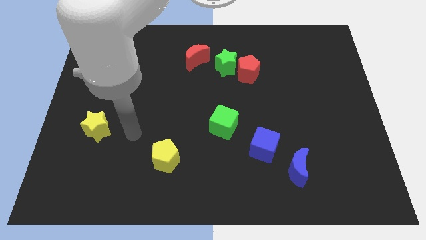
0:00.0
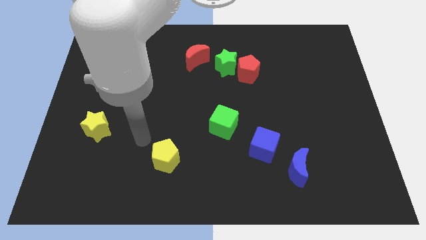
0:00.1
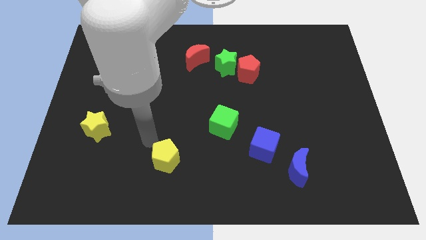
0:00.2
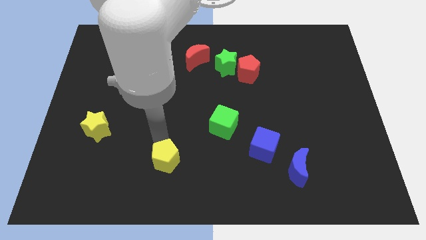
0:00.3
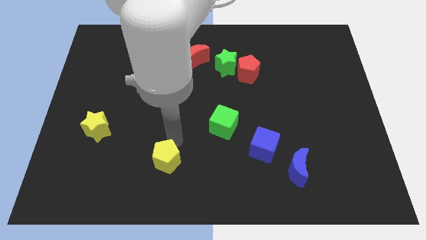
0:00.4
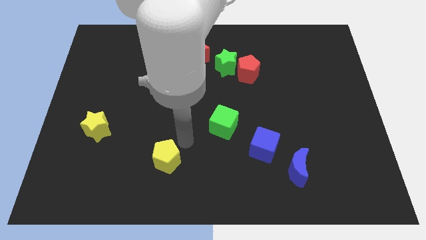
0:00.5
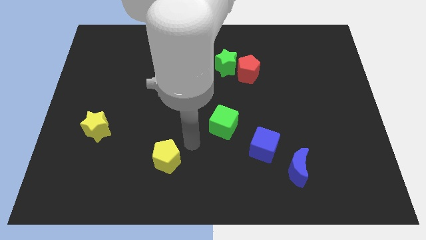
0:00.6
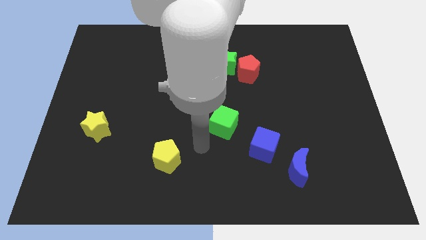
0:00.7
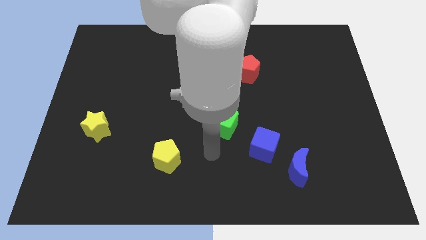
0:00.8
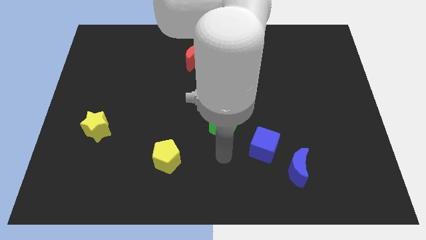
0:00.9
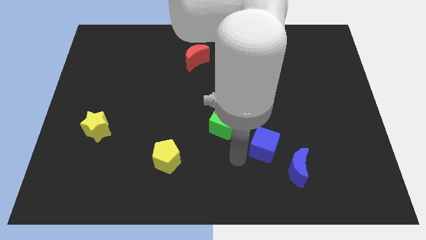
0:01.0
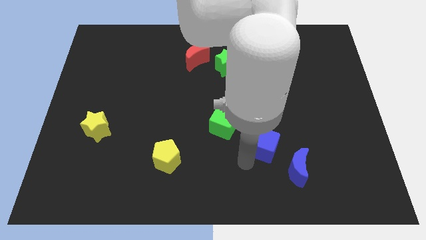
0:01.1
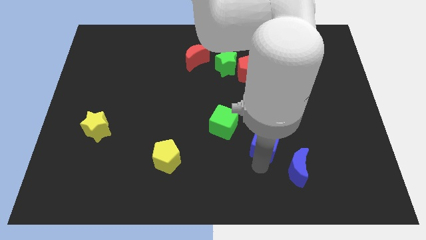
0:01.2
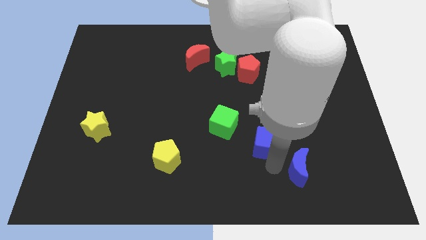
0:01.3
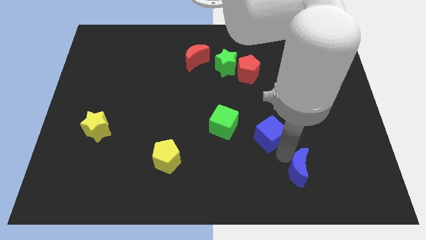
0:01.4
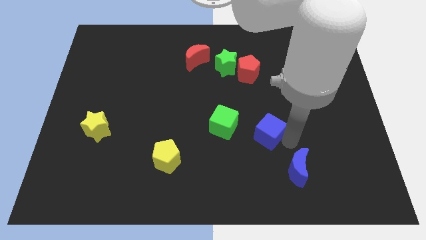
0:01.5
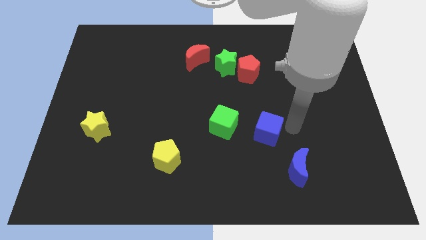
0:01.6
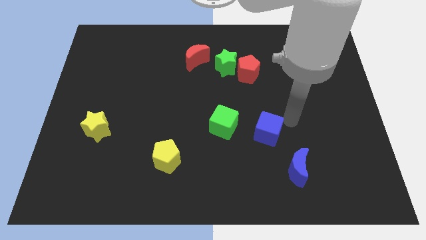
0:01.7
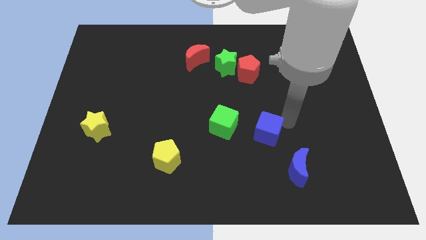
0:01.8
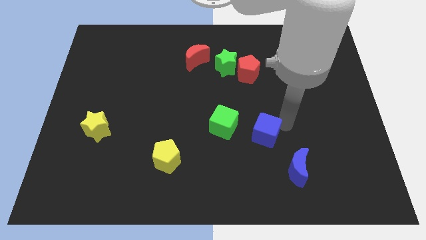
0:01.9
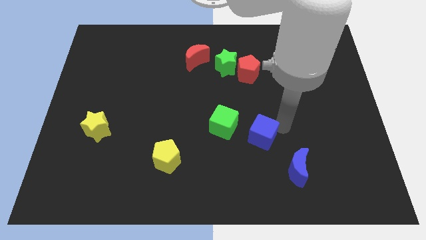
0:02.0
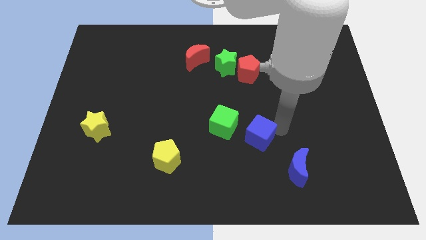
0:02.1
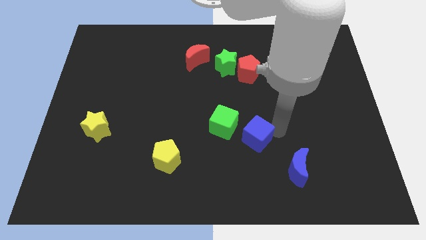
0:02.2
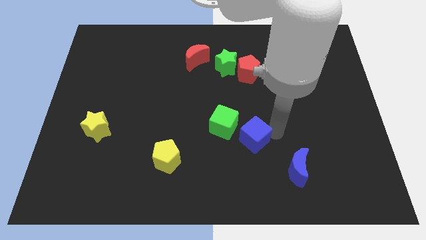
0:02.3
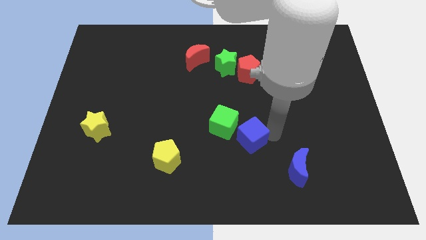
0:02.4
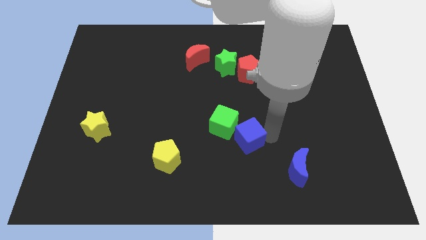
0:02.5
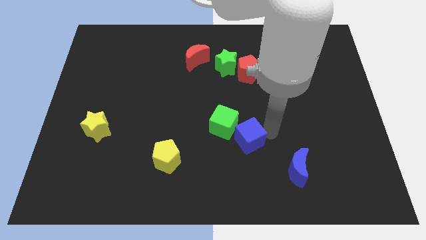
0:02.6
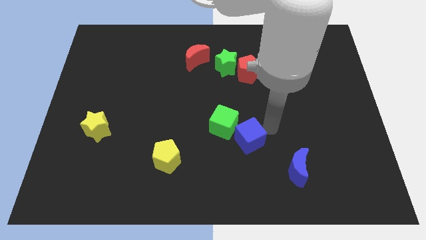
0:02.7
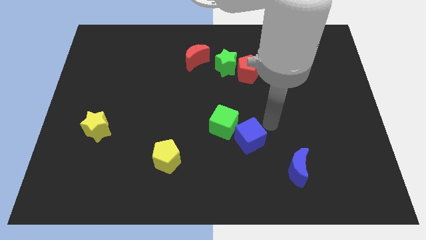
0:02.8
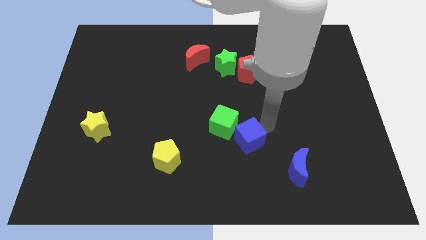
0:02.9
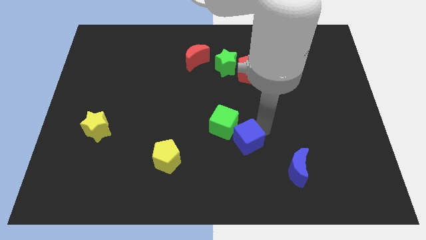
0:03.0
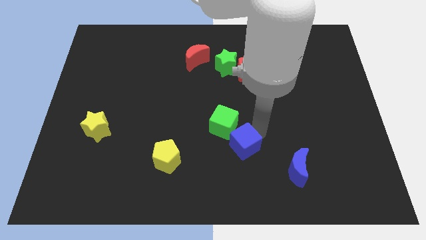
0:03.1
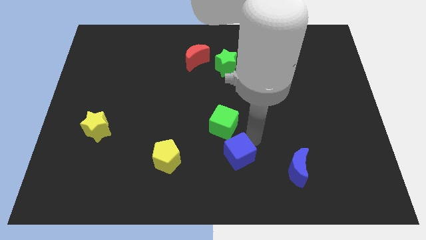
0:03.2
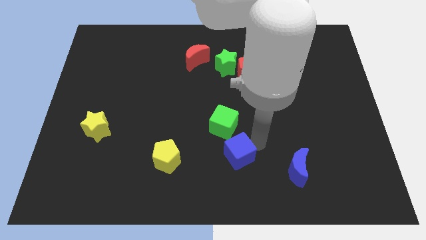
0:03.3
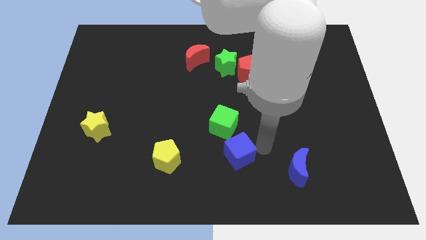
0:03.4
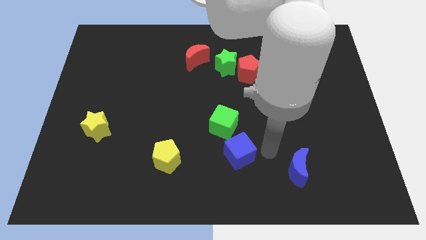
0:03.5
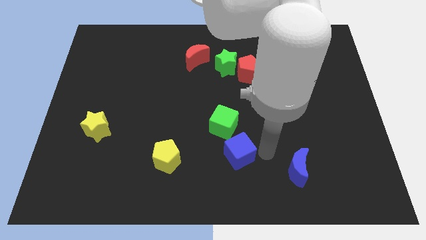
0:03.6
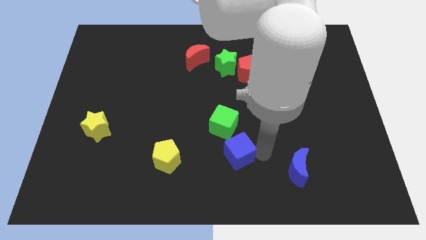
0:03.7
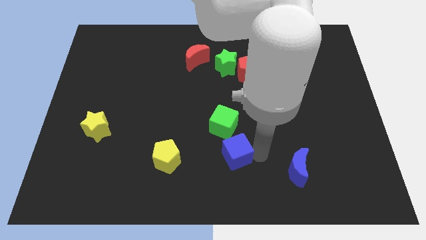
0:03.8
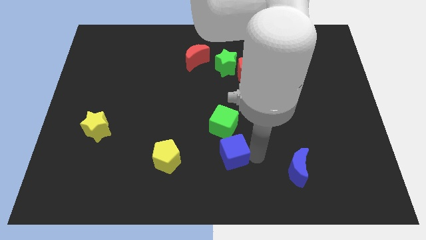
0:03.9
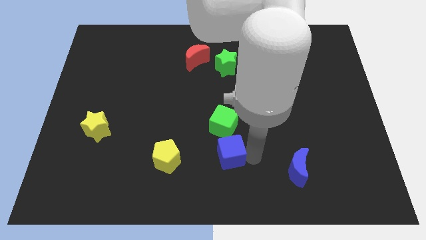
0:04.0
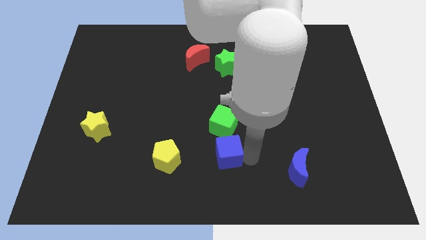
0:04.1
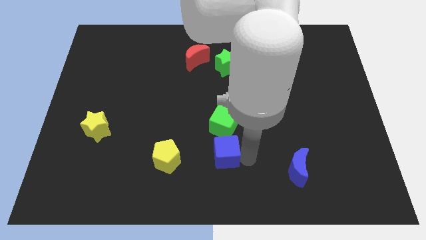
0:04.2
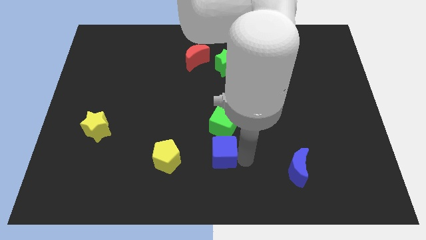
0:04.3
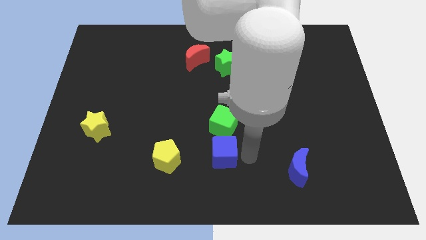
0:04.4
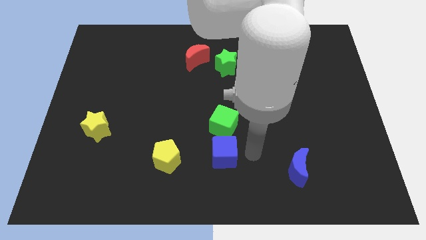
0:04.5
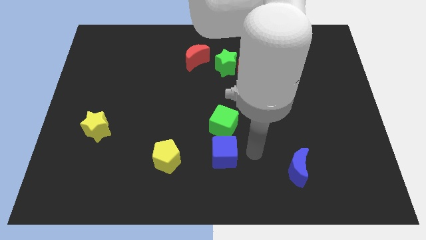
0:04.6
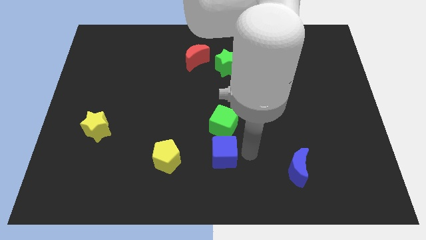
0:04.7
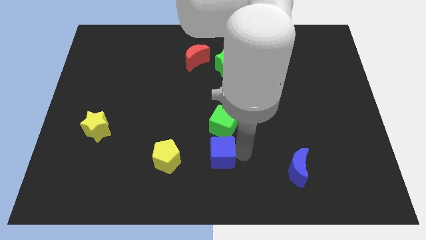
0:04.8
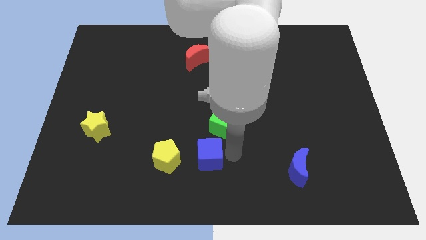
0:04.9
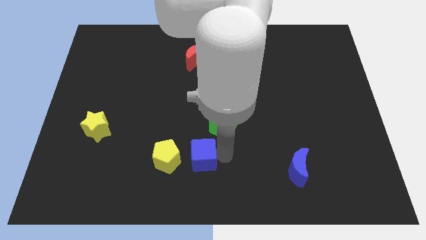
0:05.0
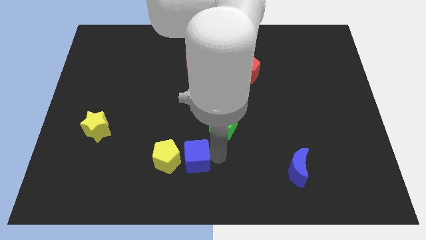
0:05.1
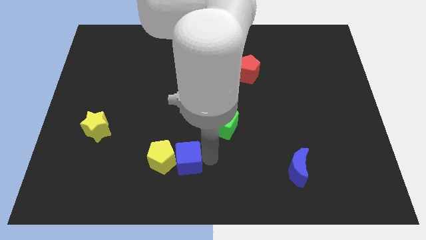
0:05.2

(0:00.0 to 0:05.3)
push the blue cube close to the yellow pentagon

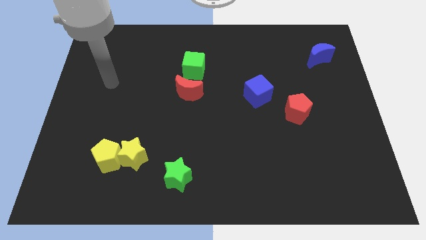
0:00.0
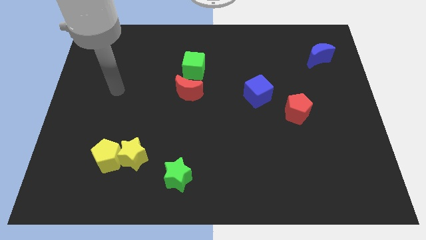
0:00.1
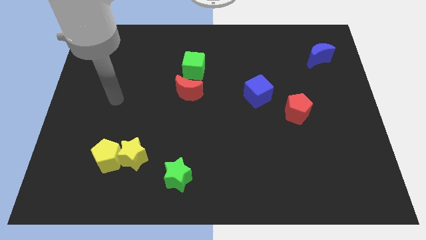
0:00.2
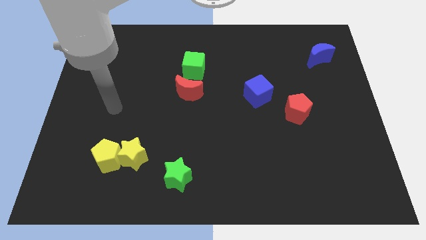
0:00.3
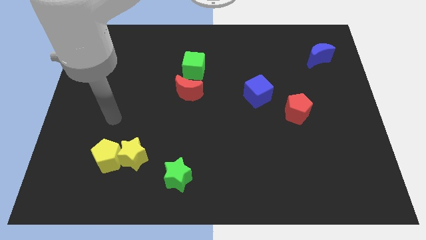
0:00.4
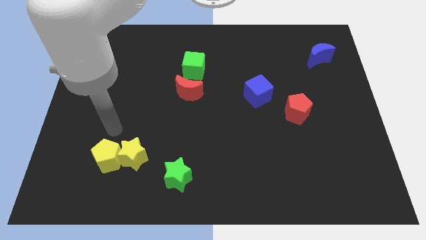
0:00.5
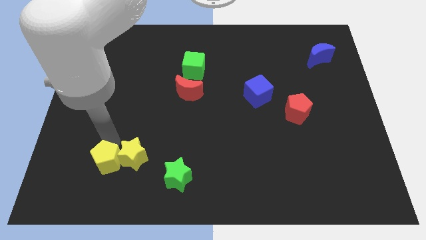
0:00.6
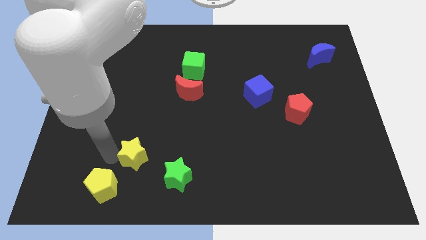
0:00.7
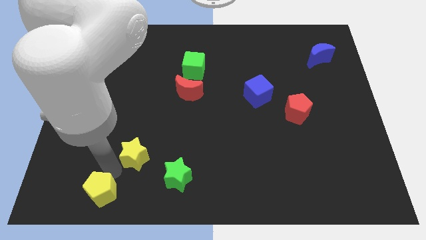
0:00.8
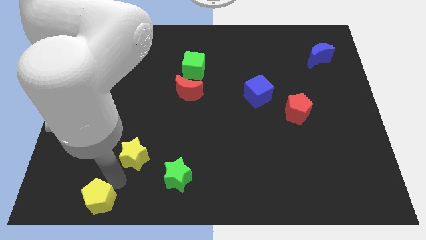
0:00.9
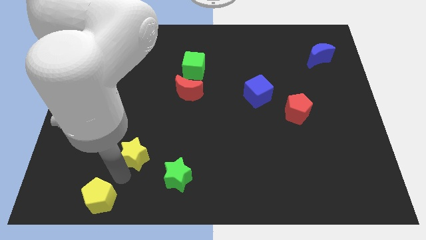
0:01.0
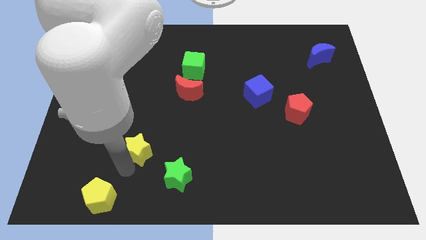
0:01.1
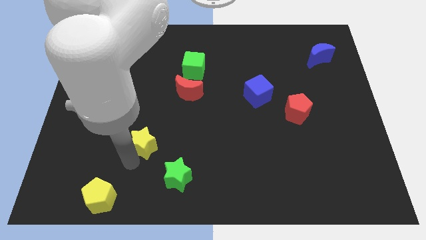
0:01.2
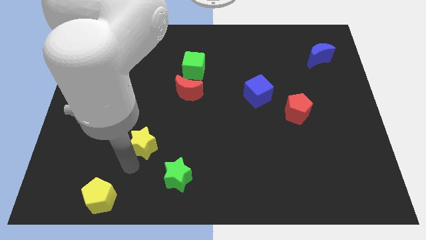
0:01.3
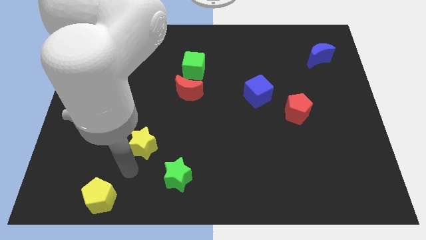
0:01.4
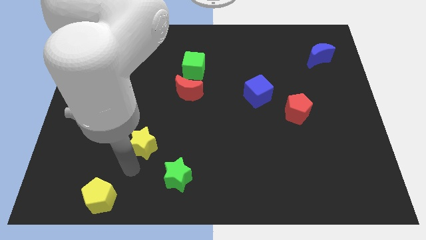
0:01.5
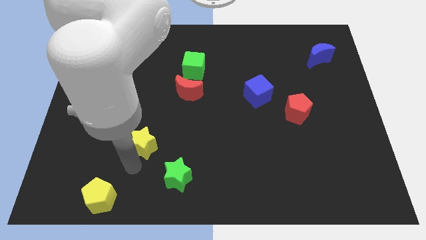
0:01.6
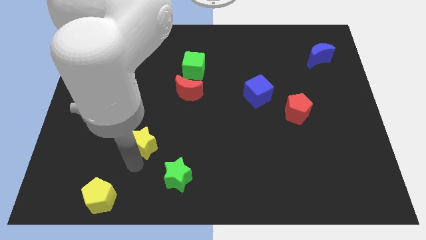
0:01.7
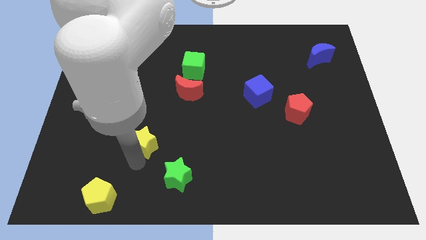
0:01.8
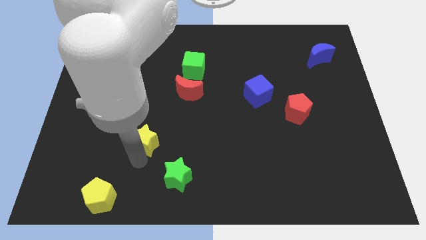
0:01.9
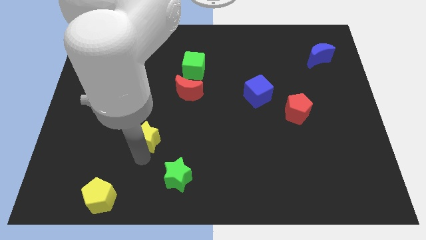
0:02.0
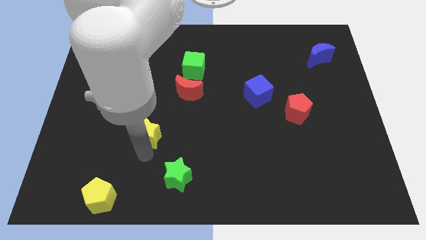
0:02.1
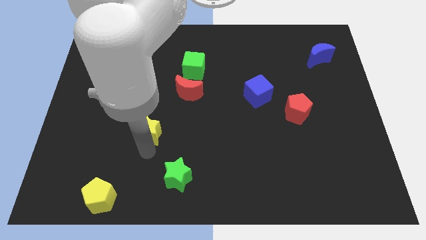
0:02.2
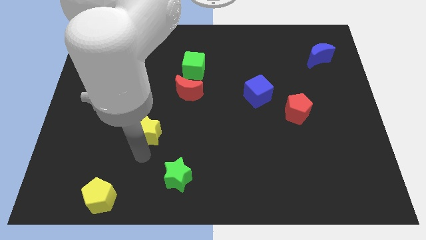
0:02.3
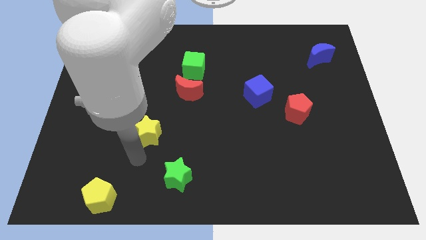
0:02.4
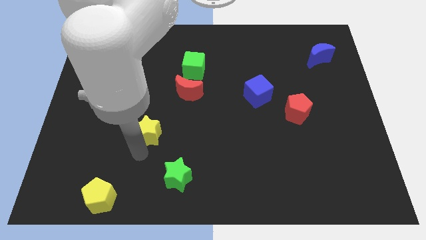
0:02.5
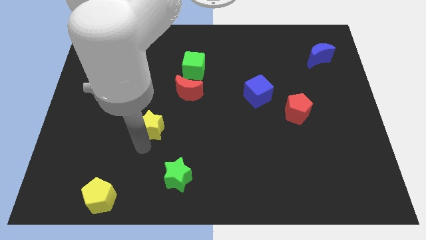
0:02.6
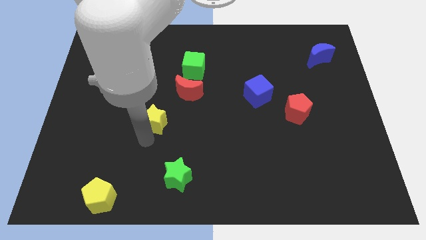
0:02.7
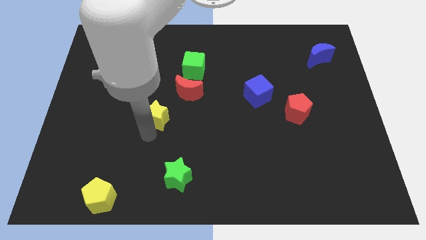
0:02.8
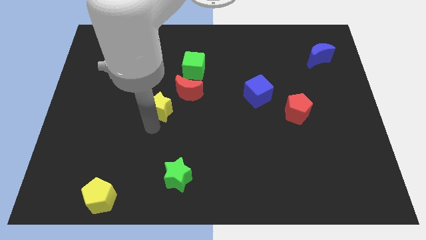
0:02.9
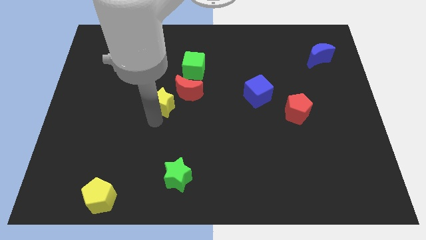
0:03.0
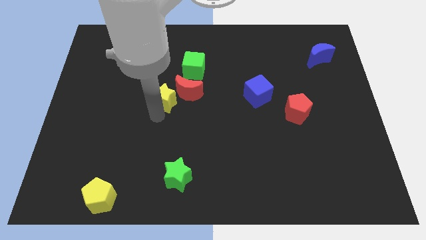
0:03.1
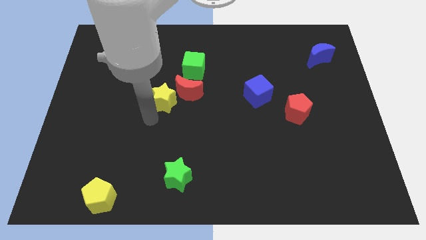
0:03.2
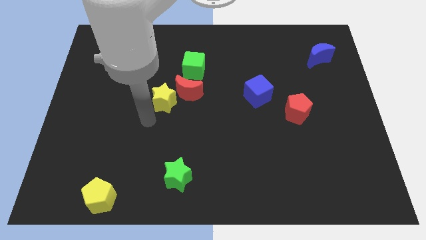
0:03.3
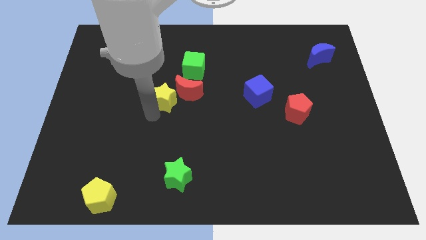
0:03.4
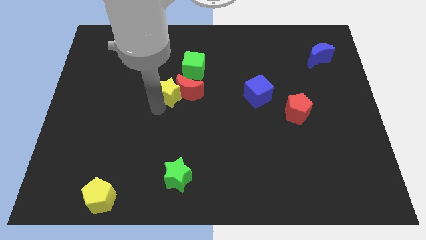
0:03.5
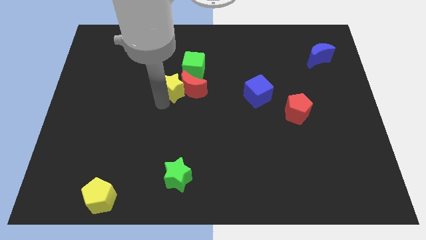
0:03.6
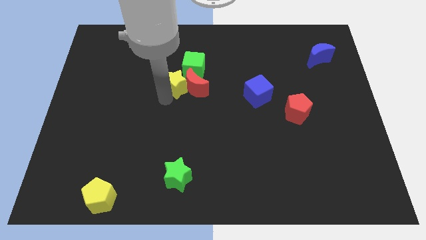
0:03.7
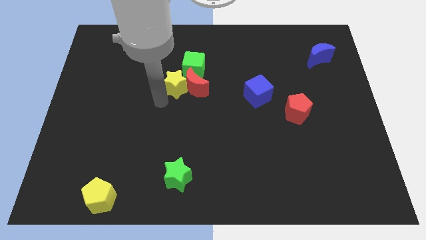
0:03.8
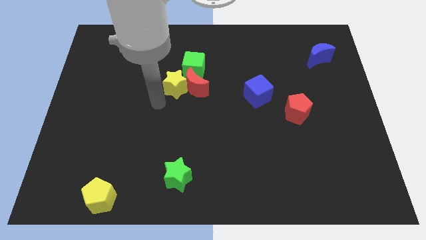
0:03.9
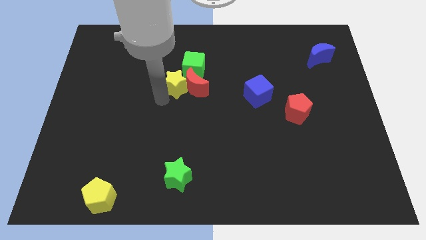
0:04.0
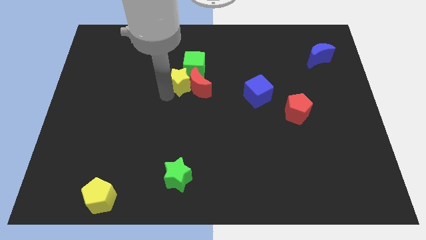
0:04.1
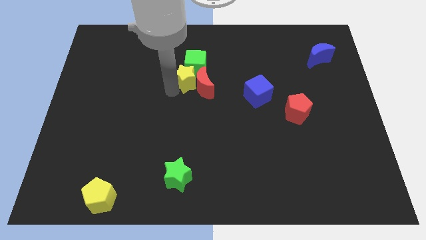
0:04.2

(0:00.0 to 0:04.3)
put the yellow star next to the green cube
